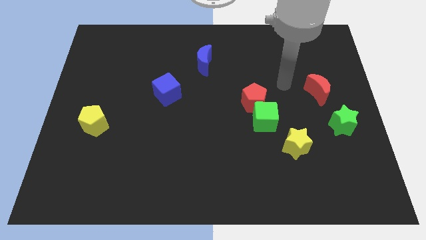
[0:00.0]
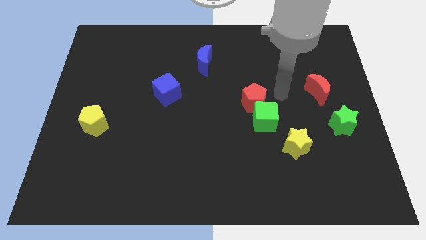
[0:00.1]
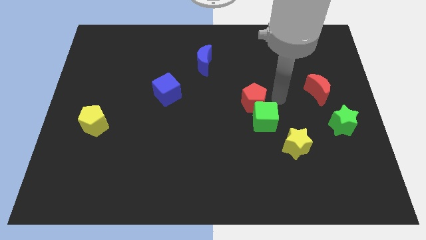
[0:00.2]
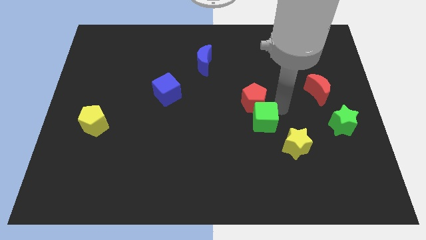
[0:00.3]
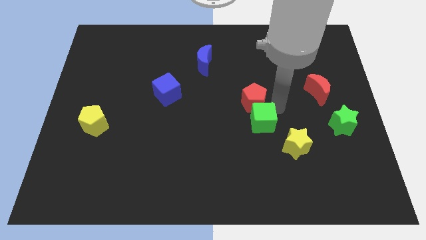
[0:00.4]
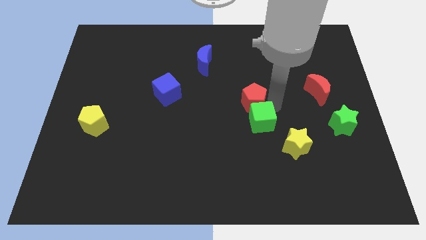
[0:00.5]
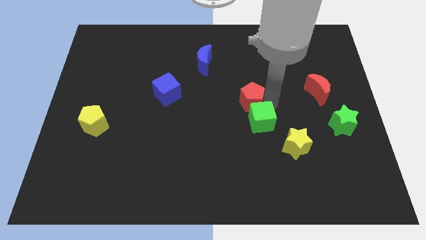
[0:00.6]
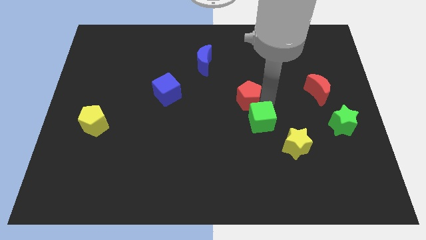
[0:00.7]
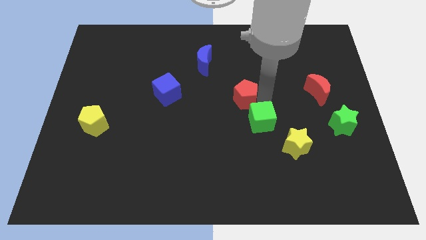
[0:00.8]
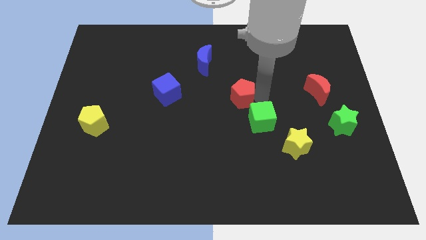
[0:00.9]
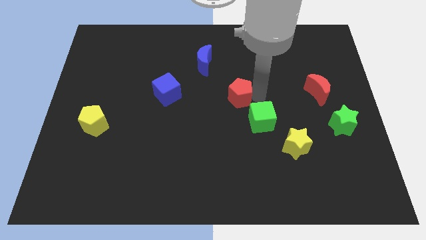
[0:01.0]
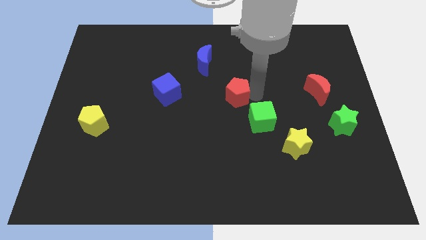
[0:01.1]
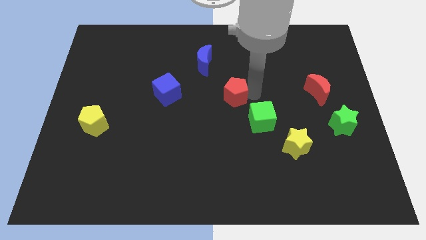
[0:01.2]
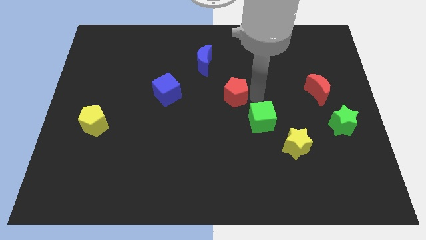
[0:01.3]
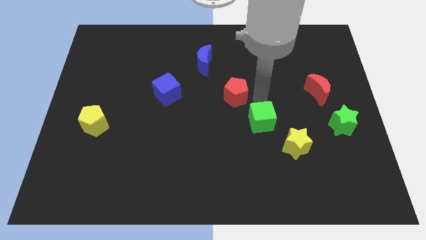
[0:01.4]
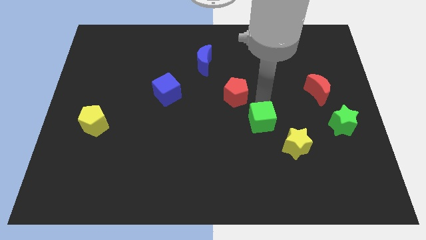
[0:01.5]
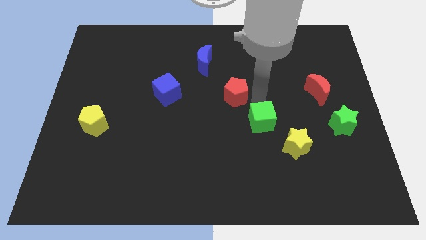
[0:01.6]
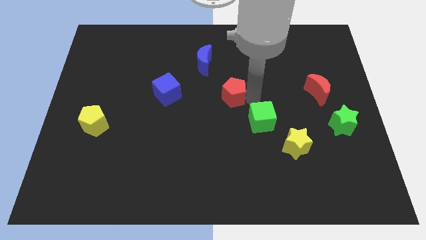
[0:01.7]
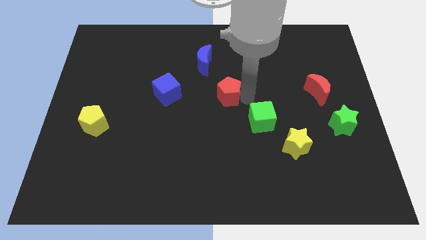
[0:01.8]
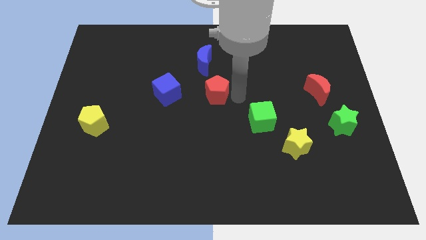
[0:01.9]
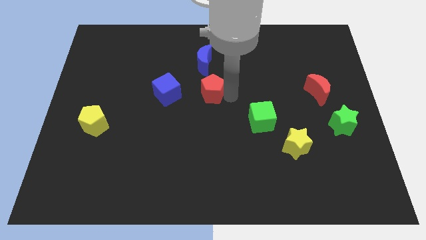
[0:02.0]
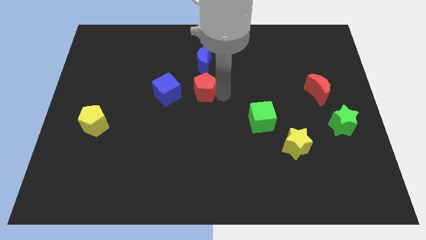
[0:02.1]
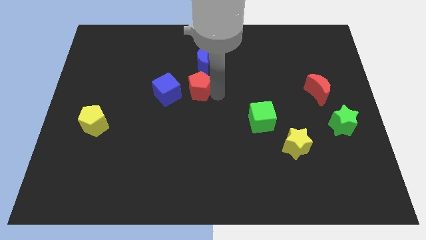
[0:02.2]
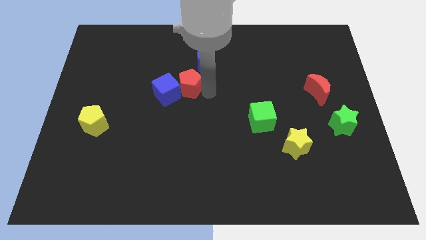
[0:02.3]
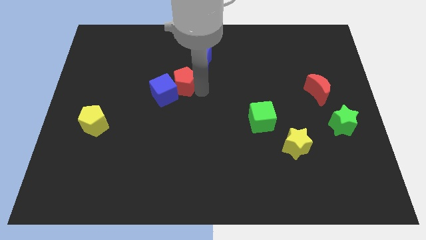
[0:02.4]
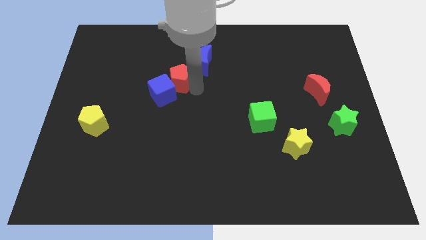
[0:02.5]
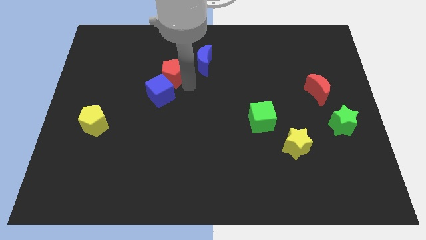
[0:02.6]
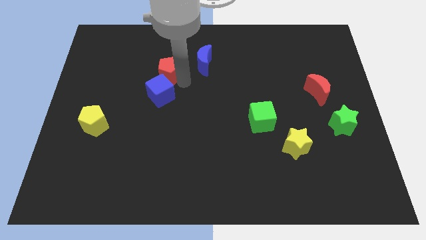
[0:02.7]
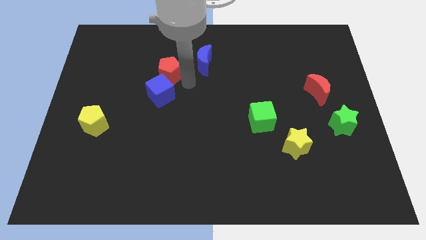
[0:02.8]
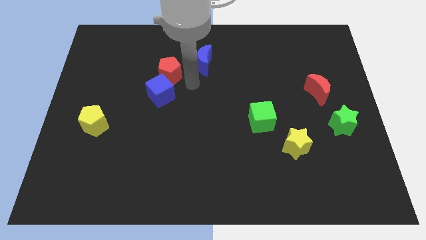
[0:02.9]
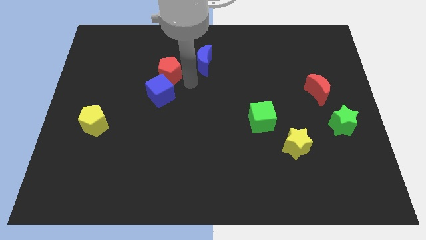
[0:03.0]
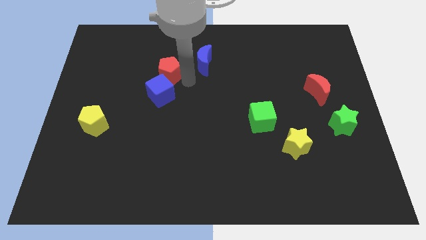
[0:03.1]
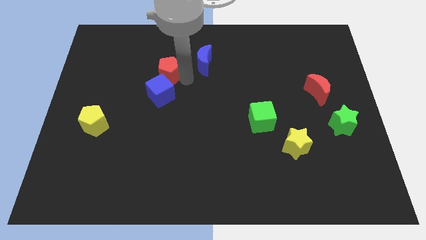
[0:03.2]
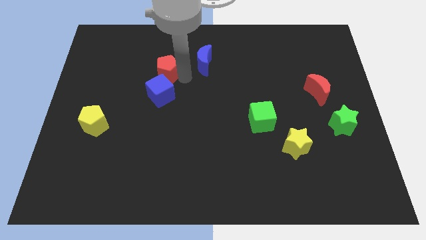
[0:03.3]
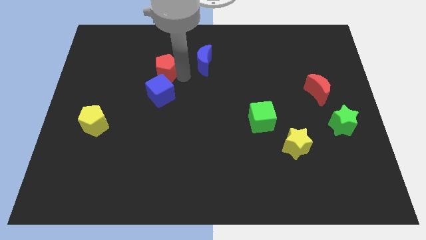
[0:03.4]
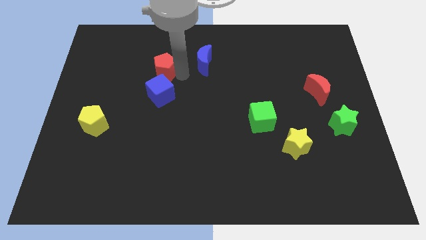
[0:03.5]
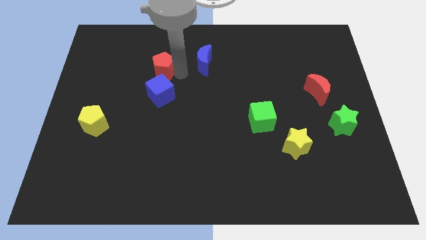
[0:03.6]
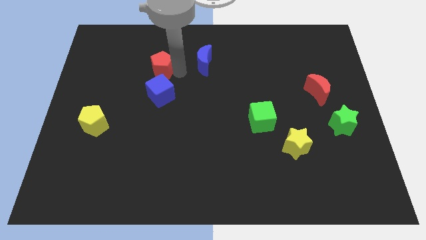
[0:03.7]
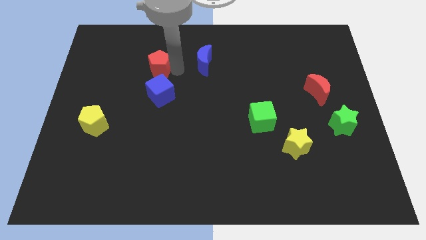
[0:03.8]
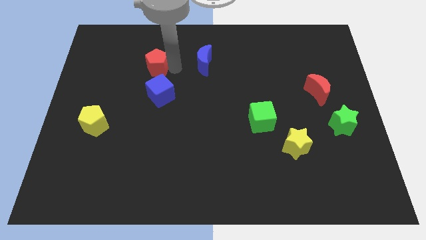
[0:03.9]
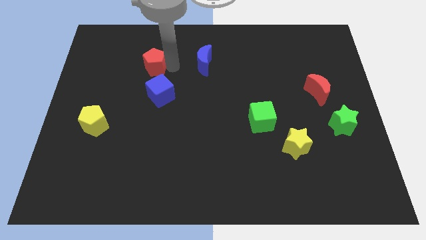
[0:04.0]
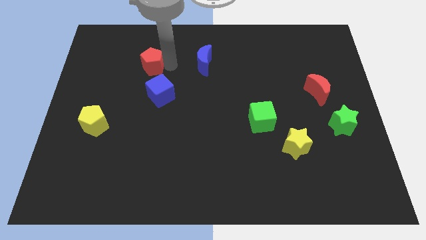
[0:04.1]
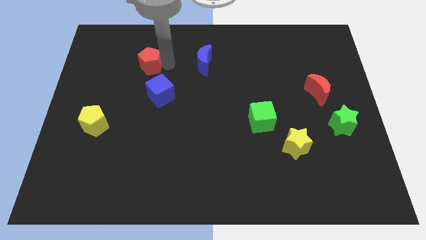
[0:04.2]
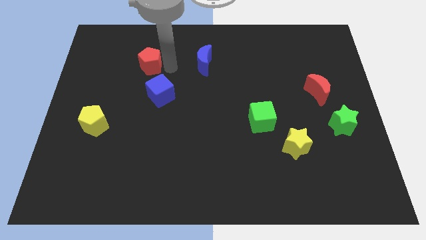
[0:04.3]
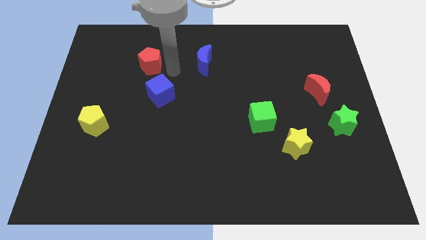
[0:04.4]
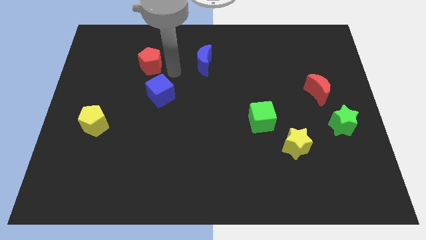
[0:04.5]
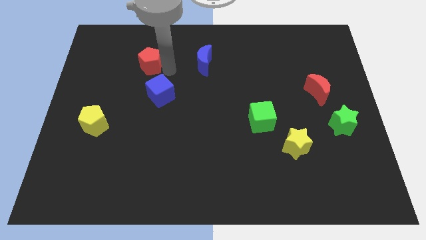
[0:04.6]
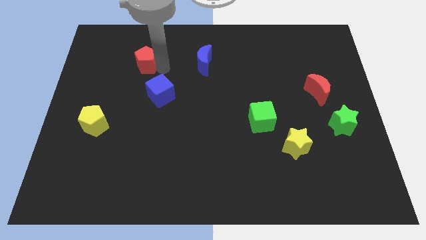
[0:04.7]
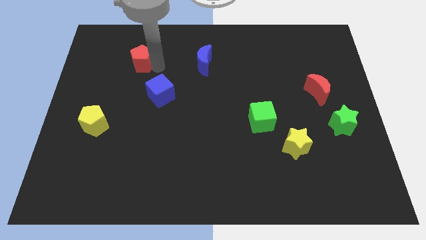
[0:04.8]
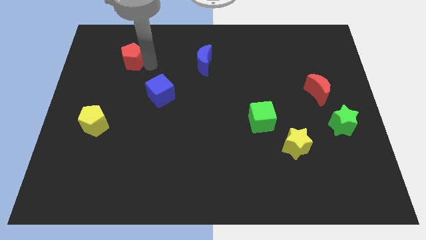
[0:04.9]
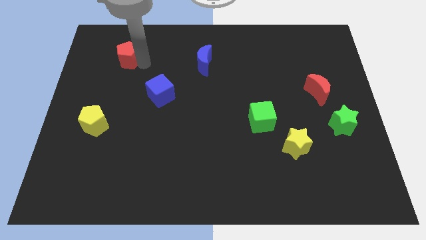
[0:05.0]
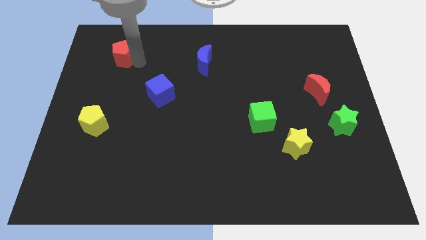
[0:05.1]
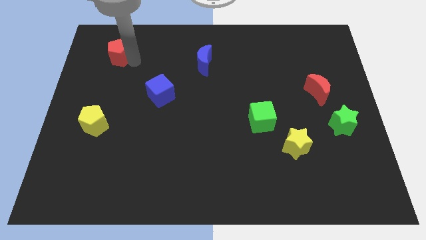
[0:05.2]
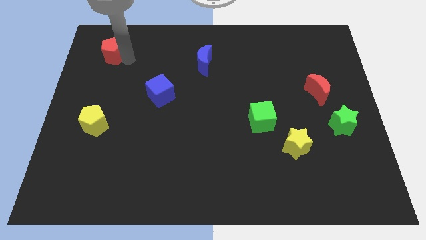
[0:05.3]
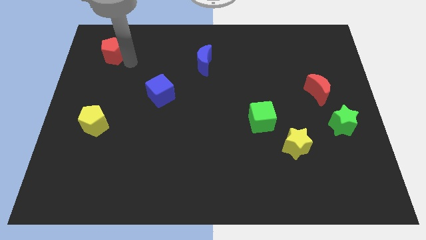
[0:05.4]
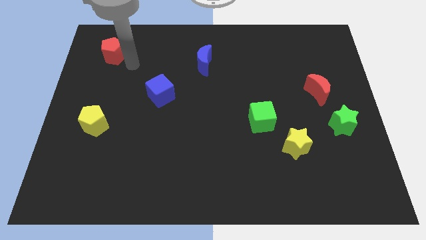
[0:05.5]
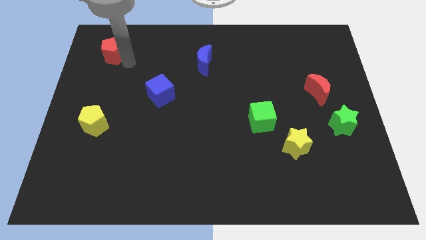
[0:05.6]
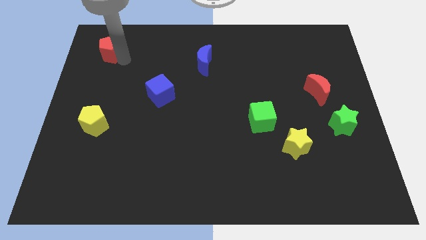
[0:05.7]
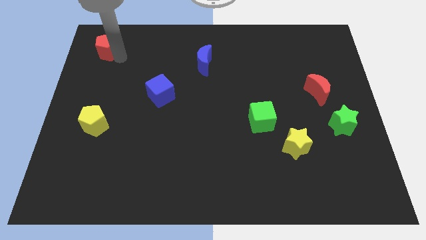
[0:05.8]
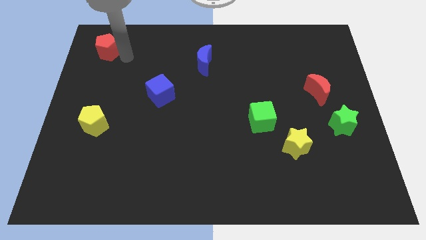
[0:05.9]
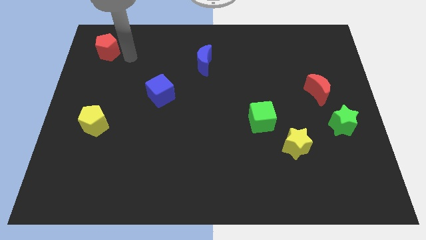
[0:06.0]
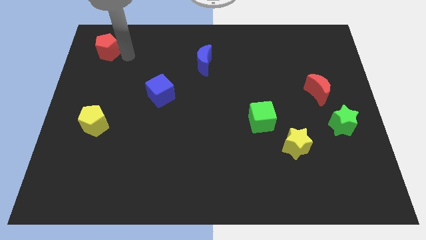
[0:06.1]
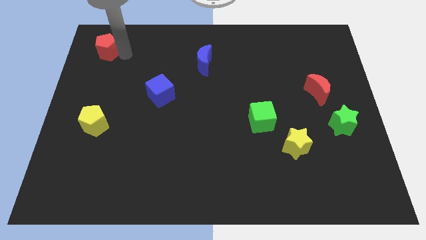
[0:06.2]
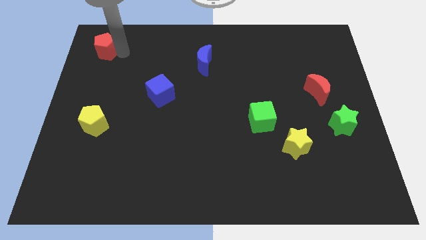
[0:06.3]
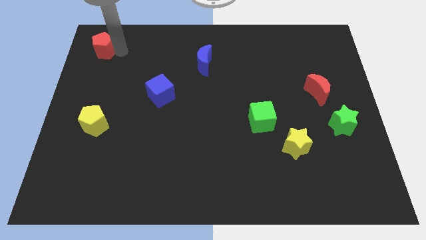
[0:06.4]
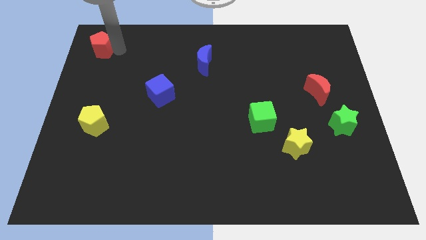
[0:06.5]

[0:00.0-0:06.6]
move the red pentagon to the top left corner
